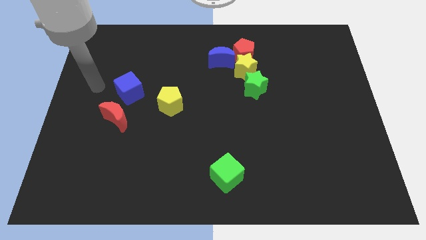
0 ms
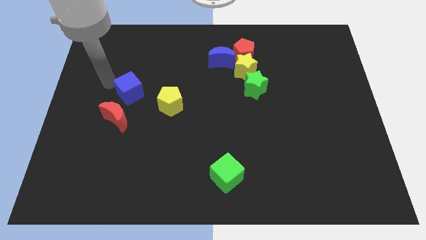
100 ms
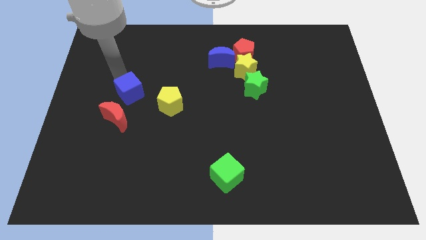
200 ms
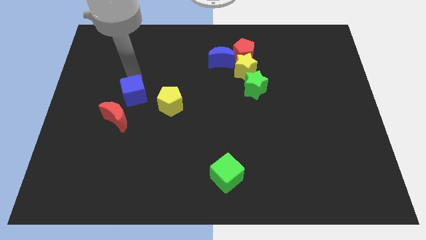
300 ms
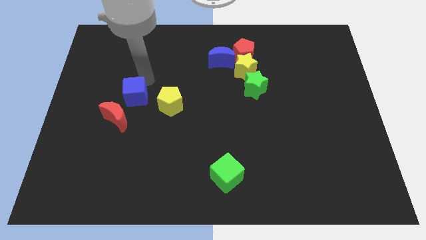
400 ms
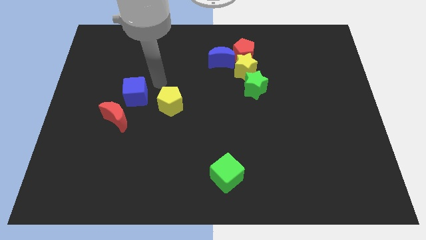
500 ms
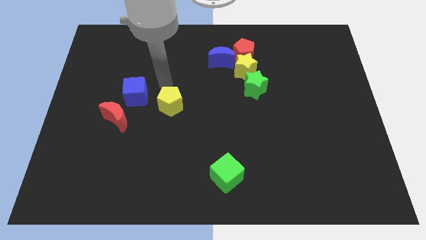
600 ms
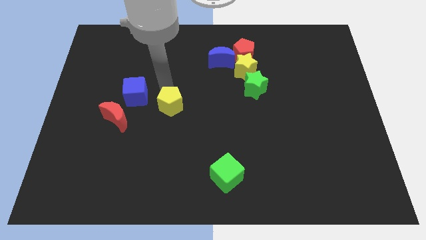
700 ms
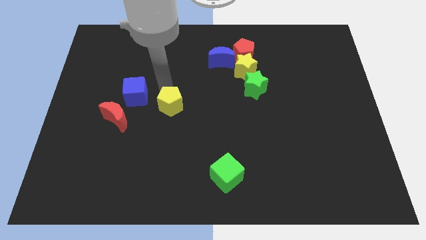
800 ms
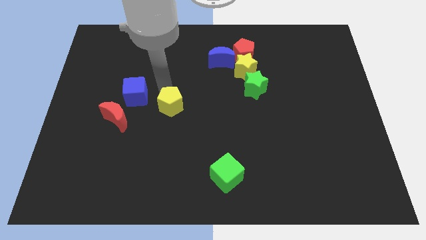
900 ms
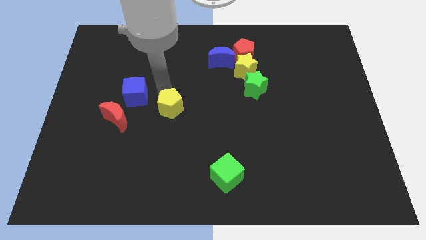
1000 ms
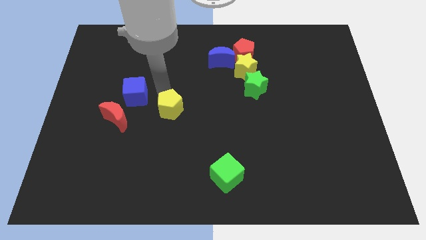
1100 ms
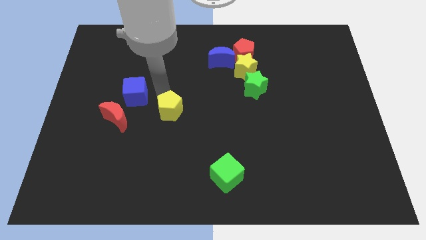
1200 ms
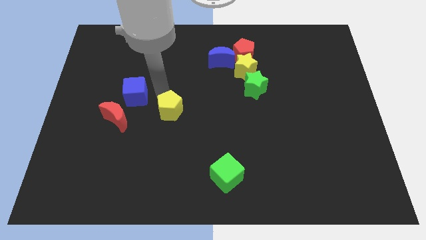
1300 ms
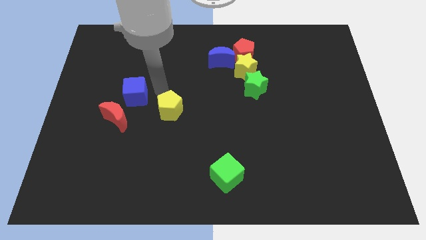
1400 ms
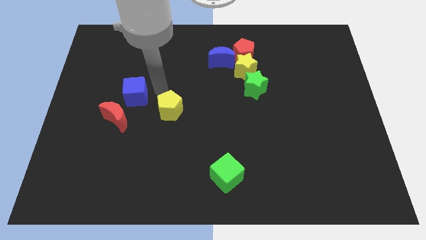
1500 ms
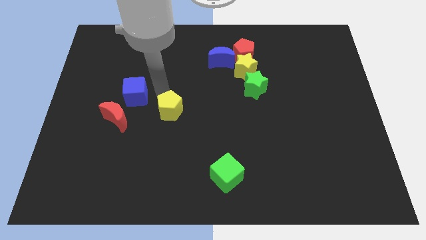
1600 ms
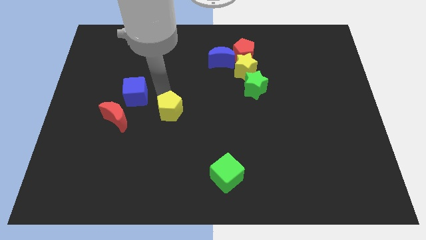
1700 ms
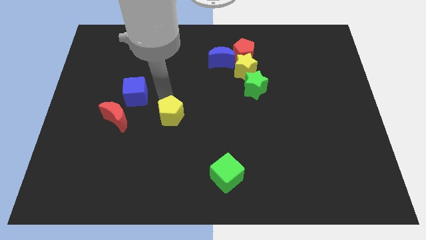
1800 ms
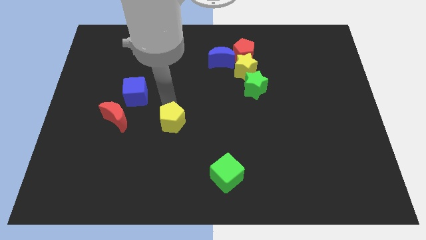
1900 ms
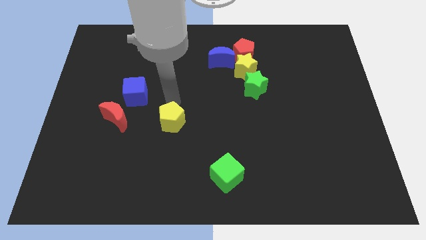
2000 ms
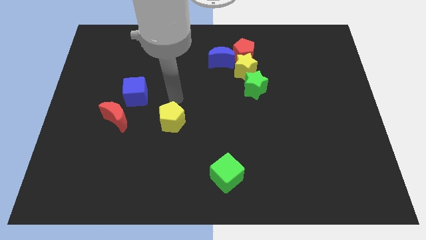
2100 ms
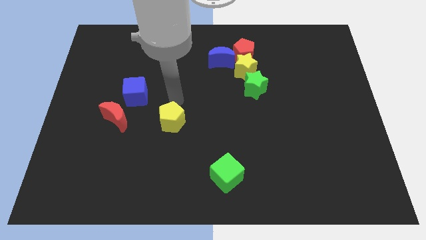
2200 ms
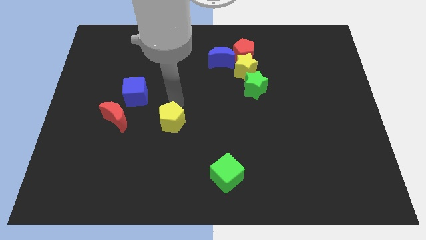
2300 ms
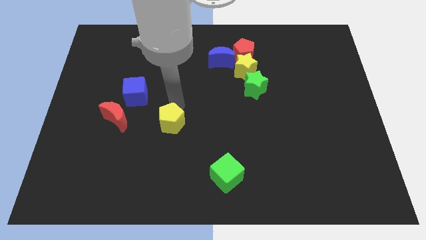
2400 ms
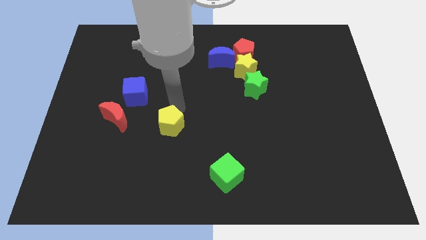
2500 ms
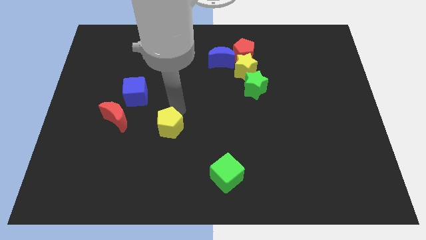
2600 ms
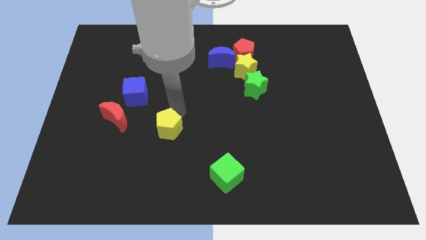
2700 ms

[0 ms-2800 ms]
slide the yellow pentagon down a bit

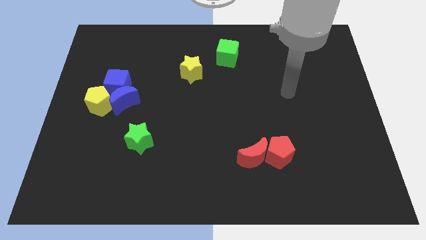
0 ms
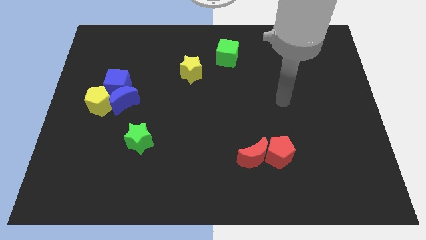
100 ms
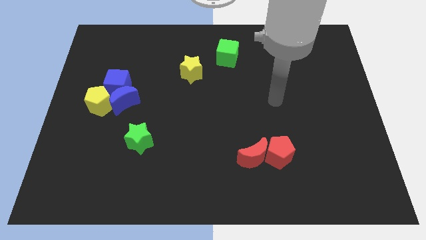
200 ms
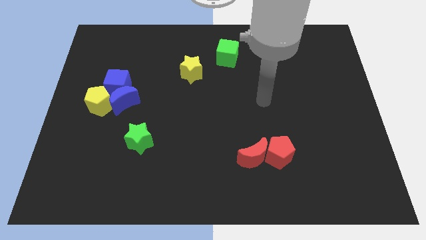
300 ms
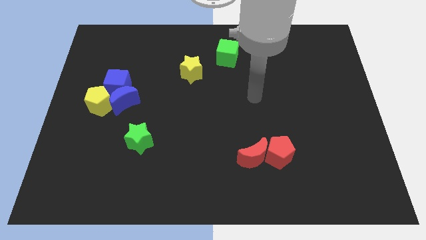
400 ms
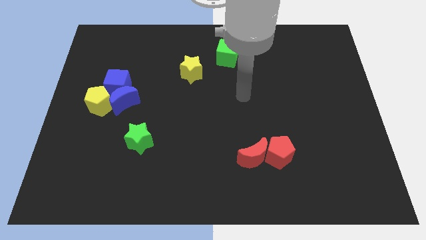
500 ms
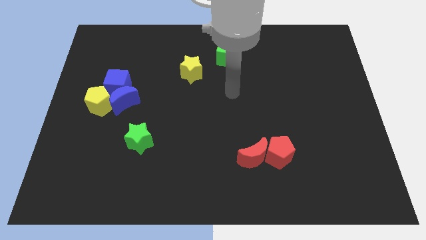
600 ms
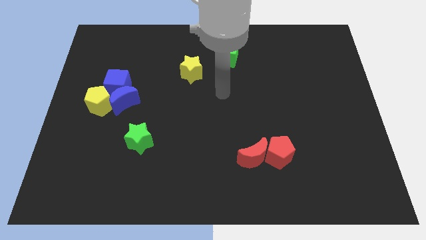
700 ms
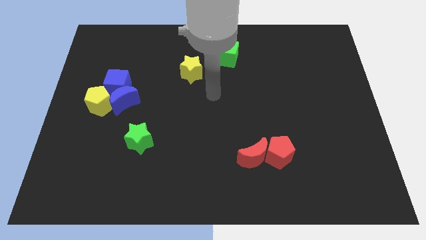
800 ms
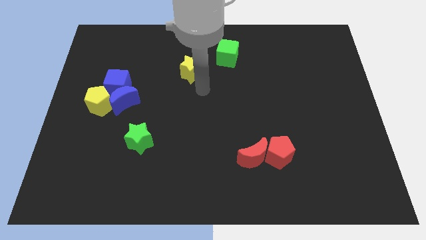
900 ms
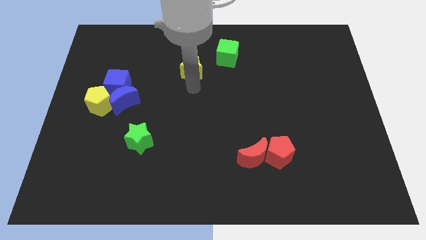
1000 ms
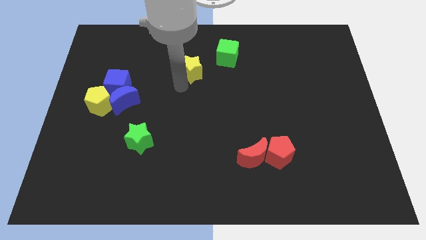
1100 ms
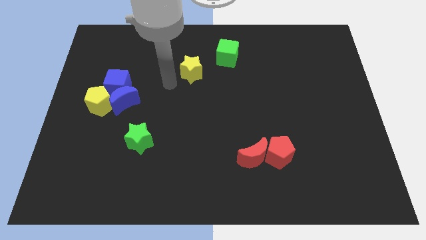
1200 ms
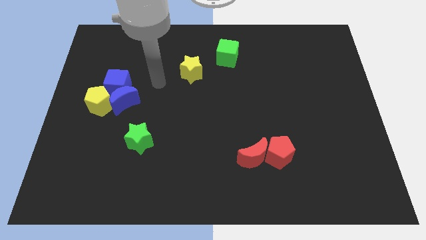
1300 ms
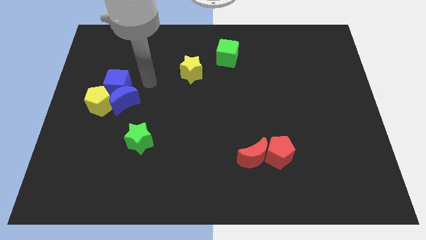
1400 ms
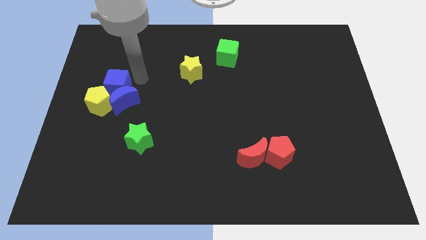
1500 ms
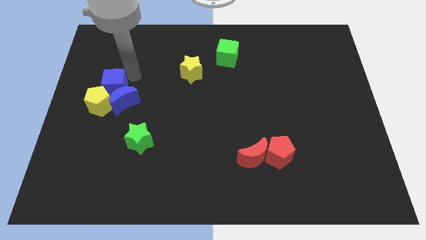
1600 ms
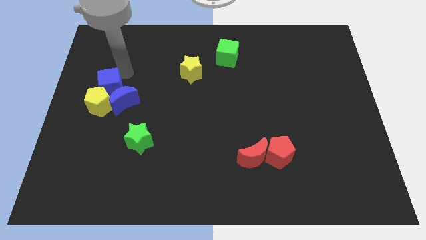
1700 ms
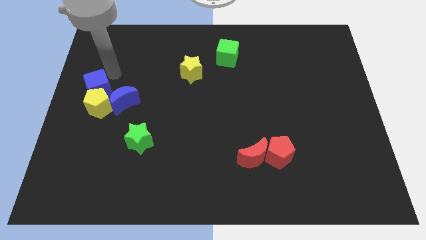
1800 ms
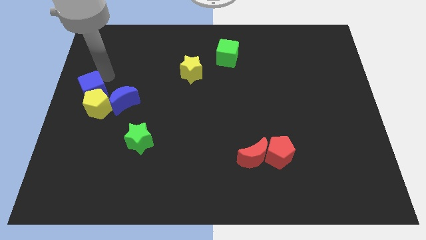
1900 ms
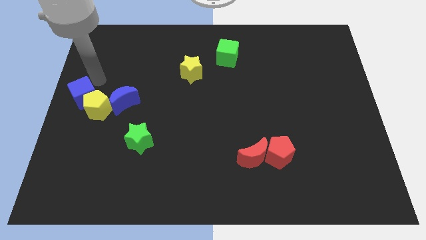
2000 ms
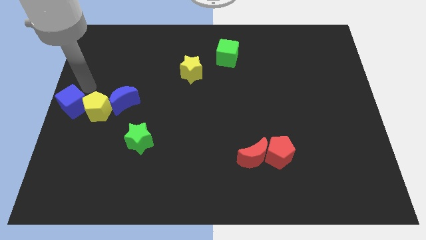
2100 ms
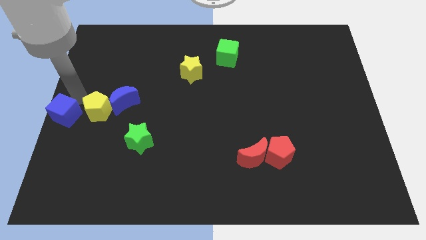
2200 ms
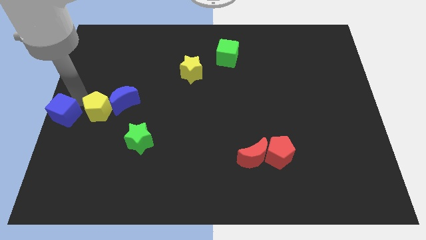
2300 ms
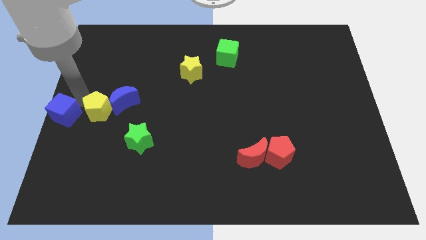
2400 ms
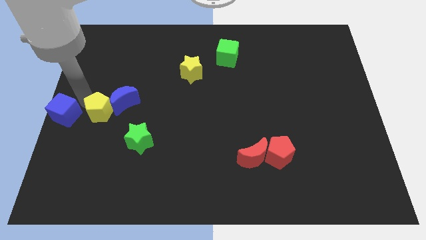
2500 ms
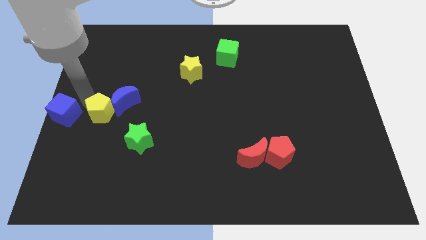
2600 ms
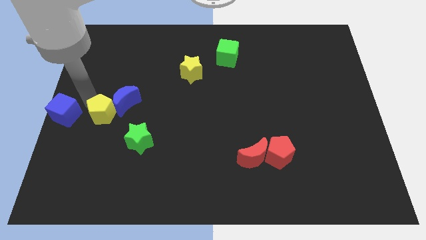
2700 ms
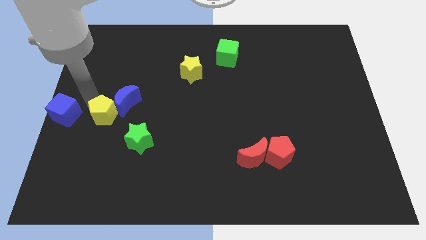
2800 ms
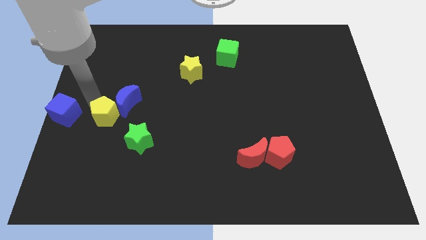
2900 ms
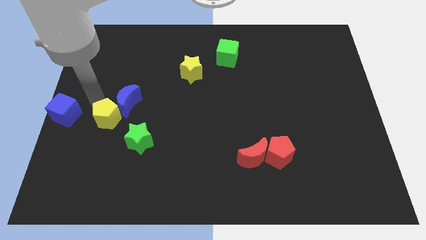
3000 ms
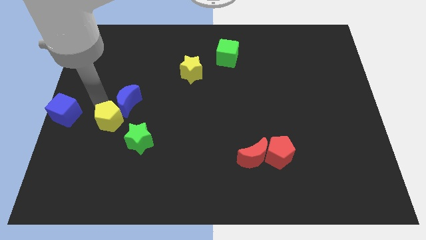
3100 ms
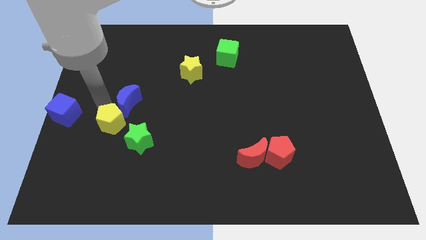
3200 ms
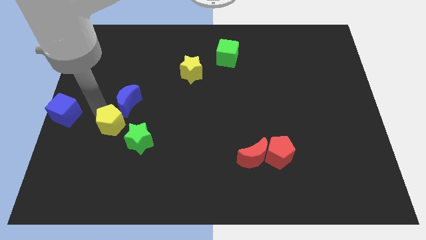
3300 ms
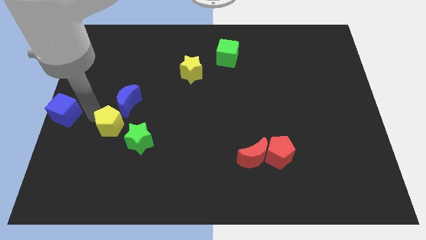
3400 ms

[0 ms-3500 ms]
slightly slide the yellow pentagon diagonally down and to the right

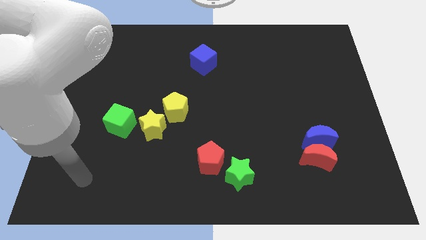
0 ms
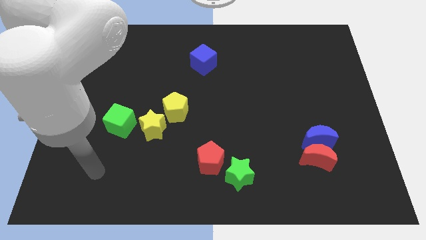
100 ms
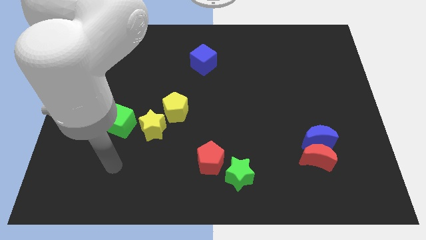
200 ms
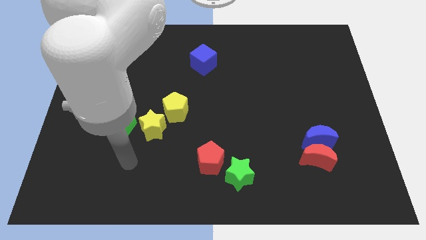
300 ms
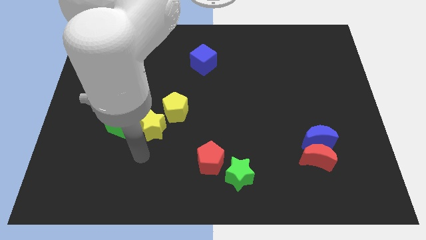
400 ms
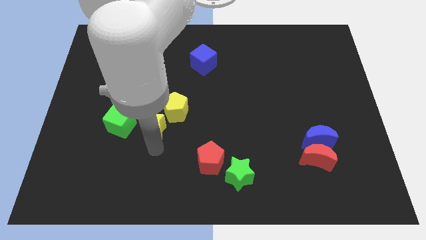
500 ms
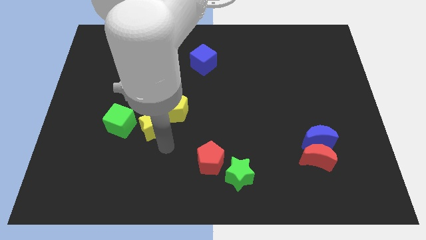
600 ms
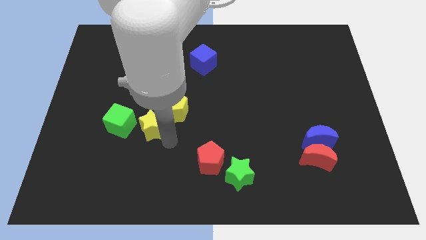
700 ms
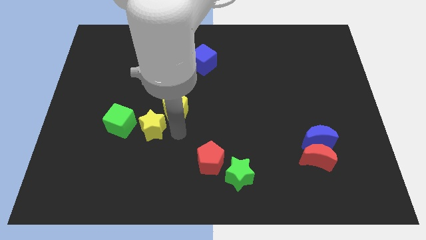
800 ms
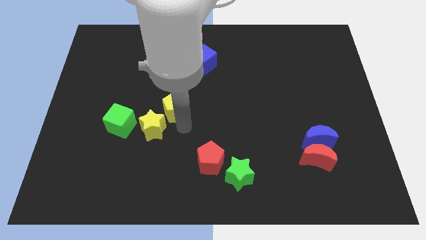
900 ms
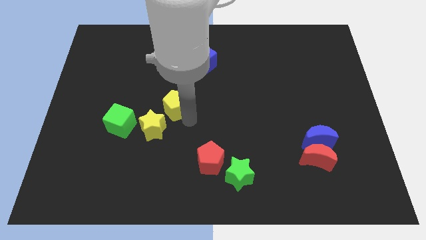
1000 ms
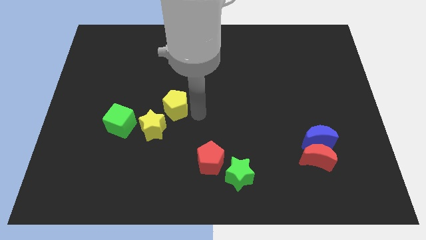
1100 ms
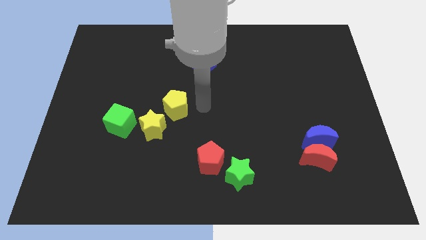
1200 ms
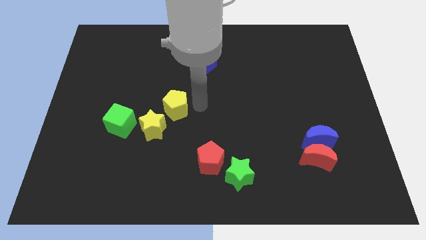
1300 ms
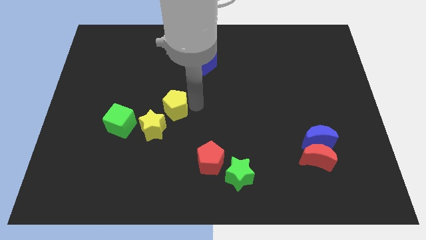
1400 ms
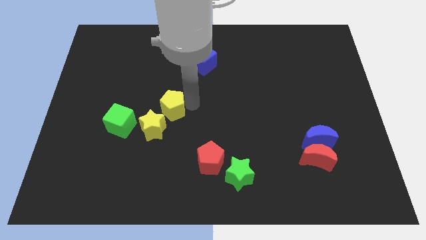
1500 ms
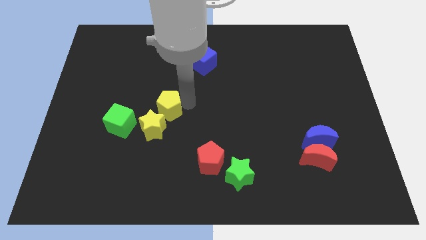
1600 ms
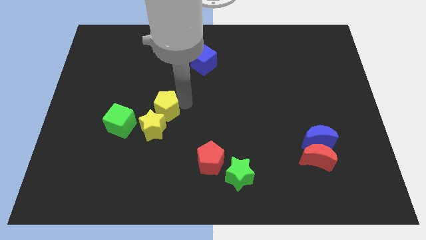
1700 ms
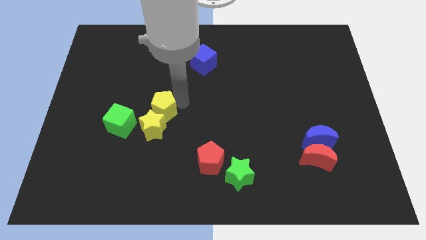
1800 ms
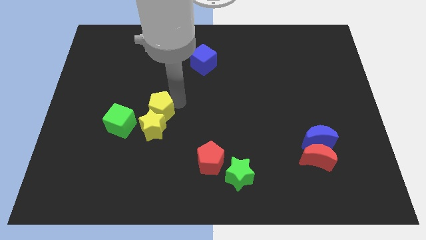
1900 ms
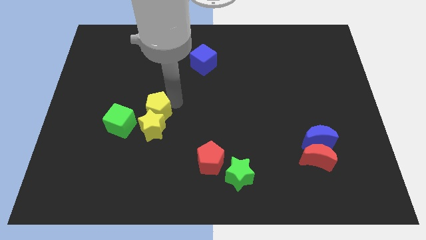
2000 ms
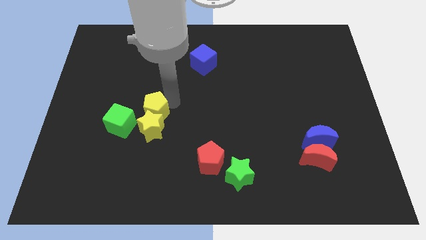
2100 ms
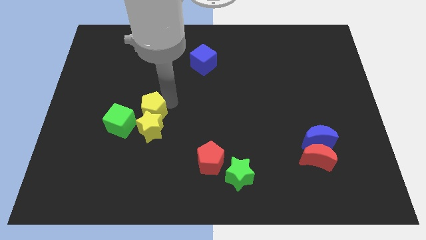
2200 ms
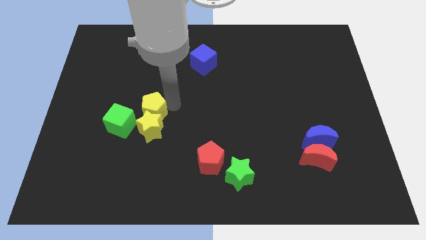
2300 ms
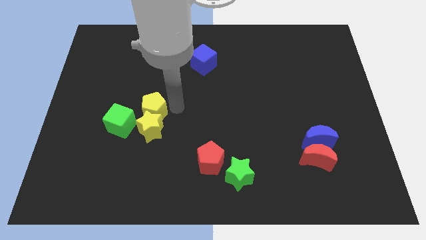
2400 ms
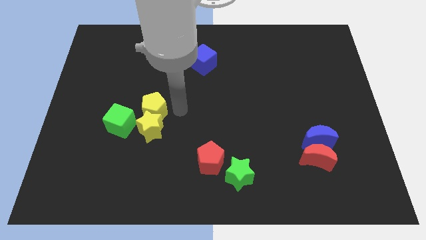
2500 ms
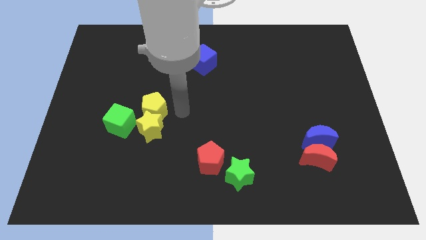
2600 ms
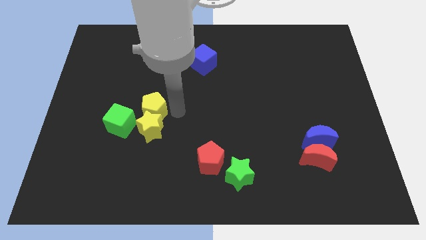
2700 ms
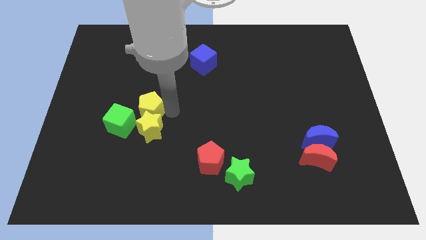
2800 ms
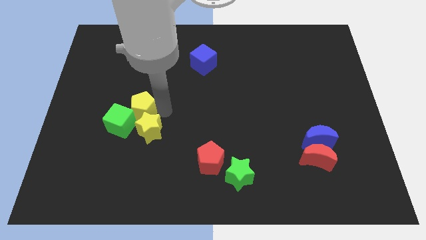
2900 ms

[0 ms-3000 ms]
slightly push the yellow pentagon to the left
